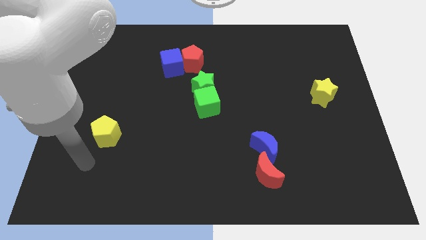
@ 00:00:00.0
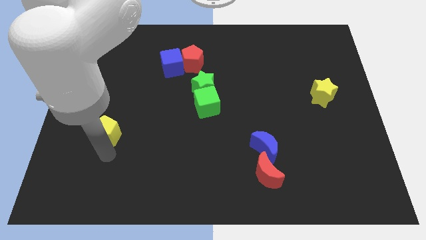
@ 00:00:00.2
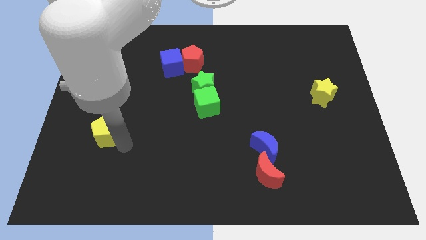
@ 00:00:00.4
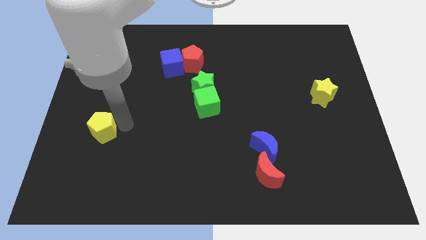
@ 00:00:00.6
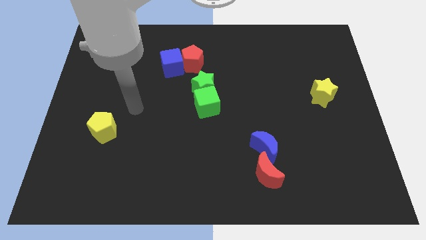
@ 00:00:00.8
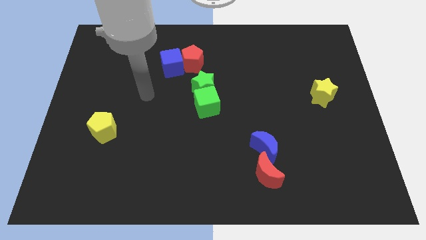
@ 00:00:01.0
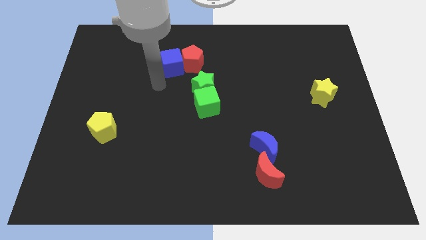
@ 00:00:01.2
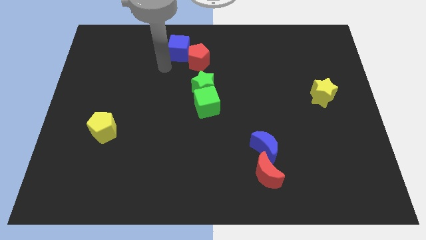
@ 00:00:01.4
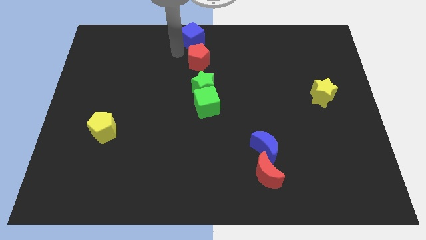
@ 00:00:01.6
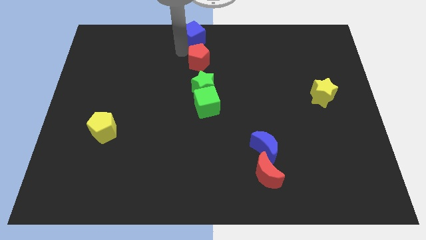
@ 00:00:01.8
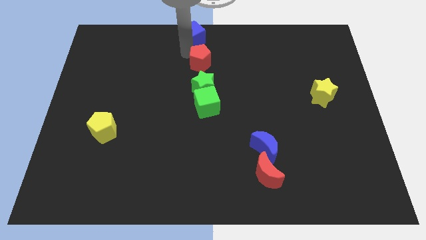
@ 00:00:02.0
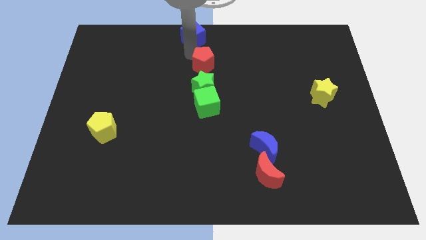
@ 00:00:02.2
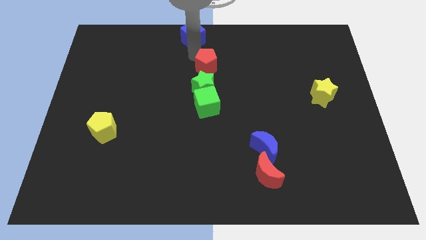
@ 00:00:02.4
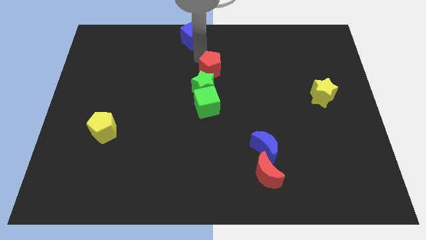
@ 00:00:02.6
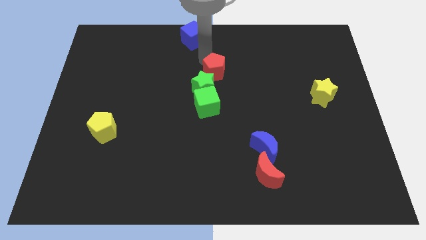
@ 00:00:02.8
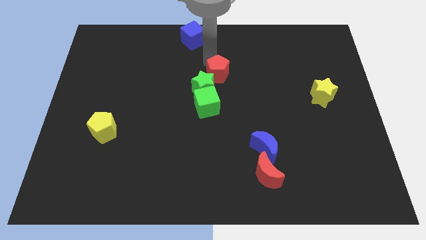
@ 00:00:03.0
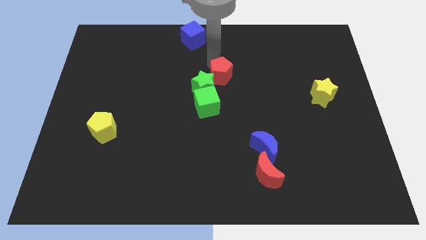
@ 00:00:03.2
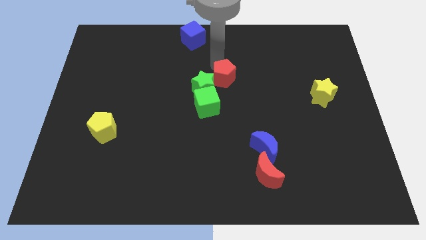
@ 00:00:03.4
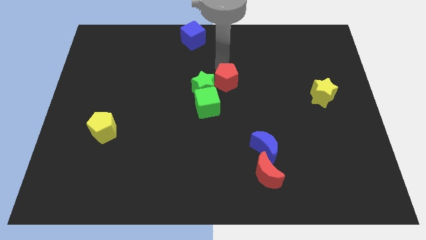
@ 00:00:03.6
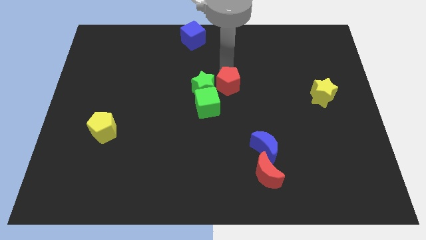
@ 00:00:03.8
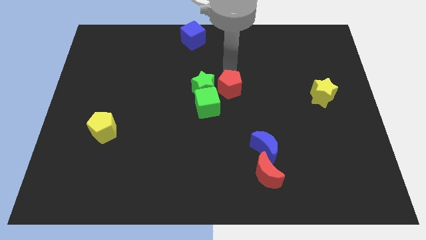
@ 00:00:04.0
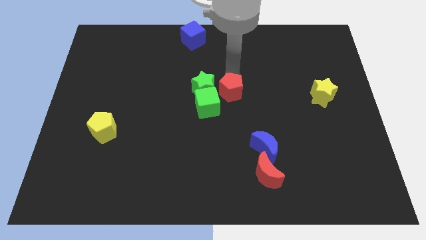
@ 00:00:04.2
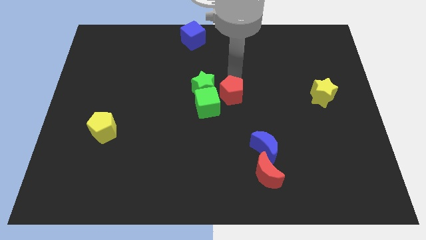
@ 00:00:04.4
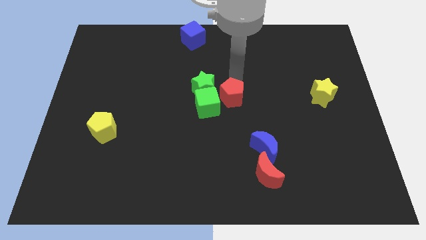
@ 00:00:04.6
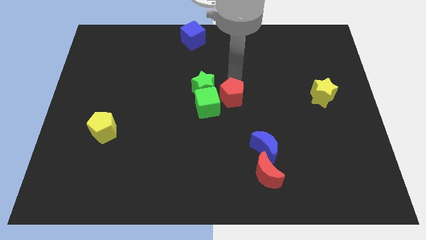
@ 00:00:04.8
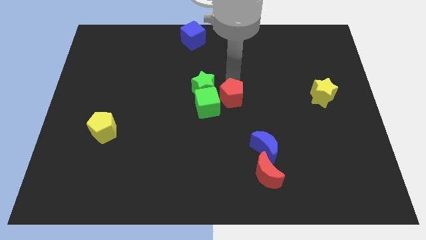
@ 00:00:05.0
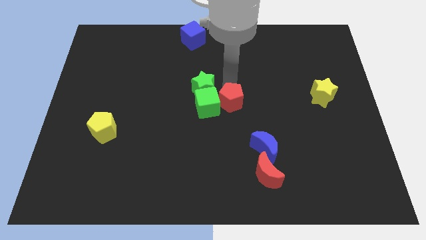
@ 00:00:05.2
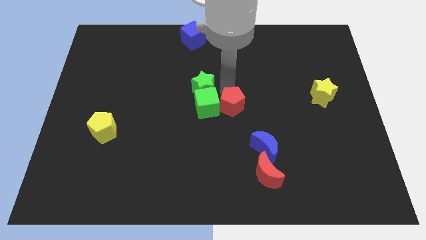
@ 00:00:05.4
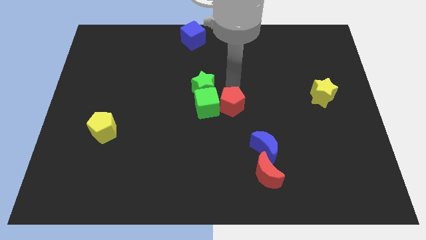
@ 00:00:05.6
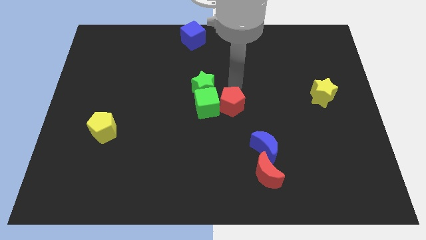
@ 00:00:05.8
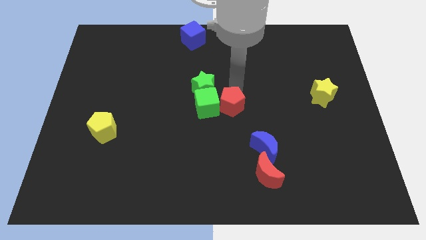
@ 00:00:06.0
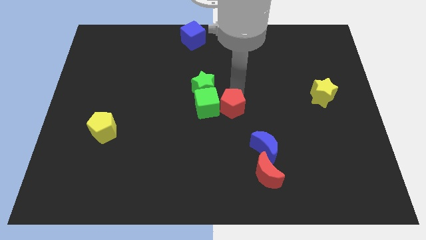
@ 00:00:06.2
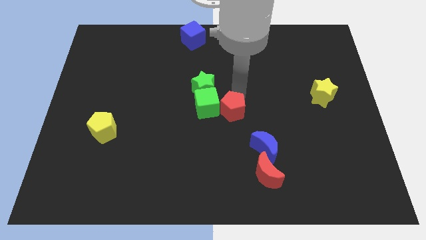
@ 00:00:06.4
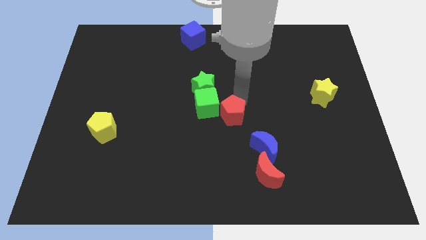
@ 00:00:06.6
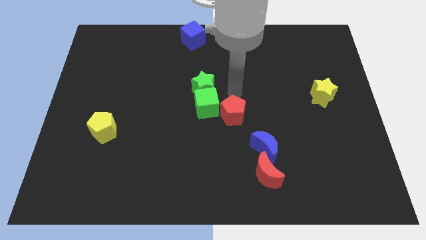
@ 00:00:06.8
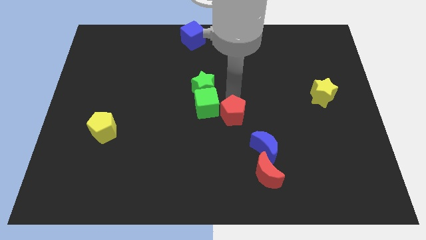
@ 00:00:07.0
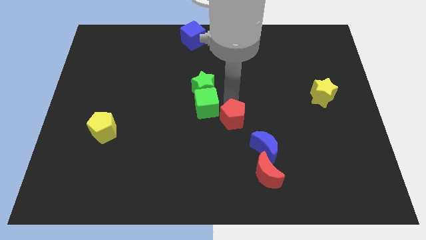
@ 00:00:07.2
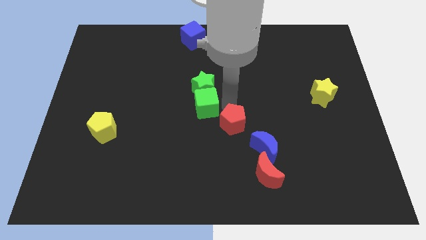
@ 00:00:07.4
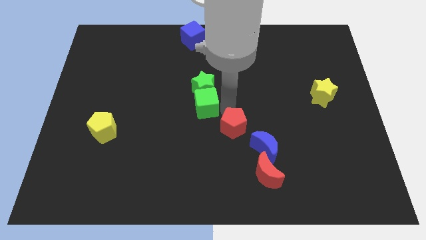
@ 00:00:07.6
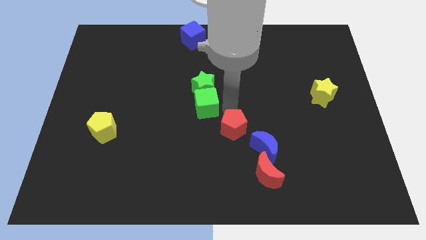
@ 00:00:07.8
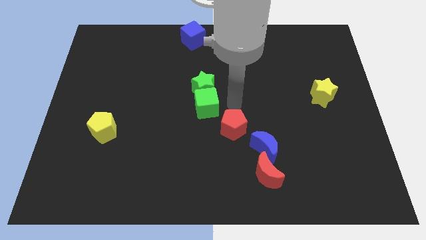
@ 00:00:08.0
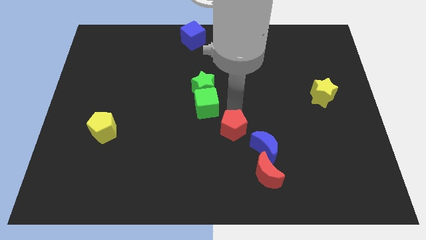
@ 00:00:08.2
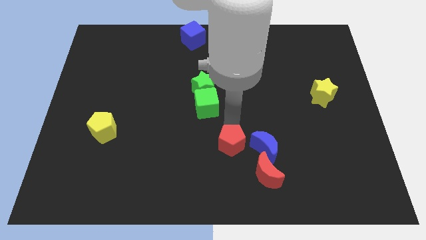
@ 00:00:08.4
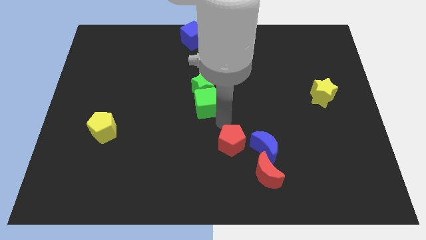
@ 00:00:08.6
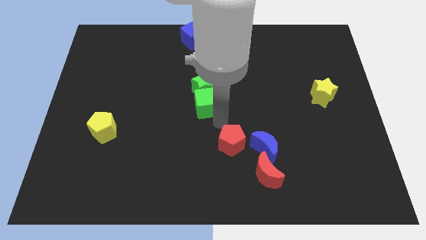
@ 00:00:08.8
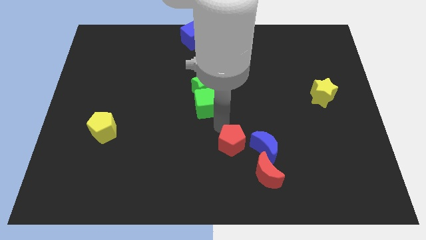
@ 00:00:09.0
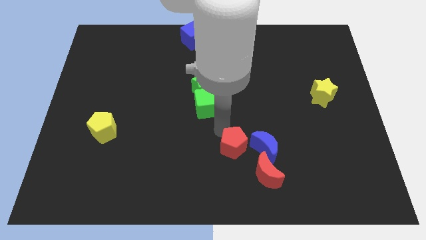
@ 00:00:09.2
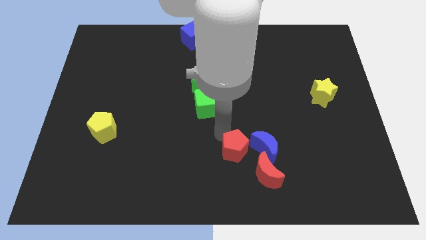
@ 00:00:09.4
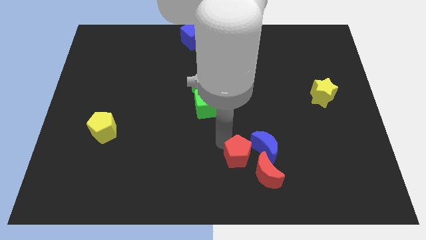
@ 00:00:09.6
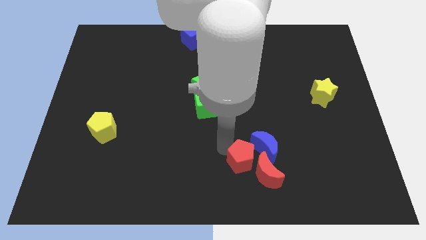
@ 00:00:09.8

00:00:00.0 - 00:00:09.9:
push the red pentagon next to the red moon

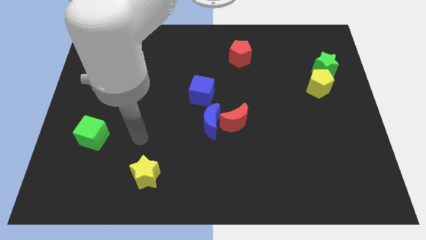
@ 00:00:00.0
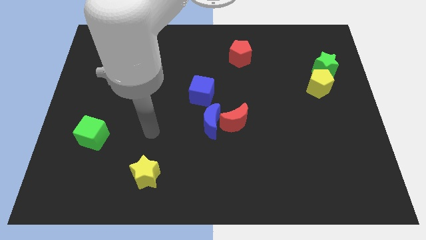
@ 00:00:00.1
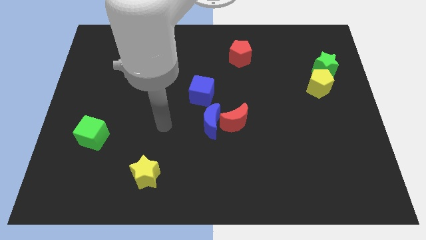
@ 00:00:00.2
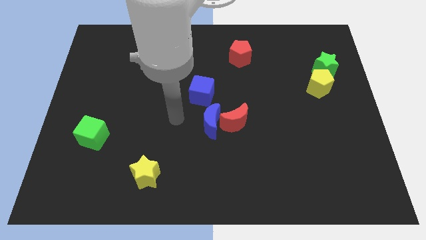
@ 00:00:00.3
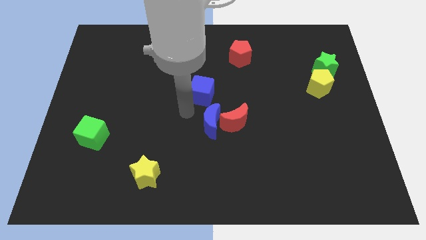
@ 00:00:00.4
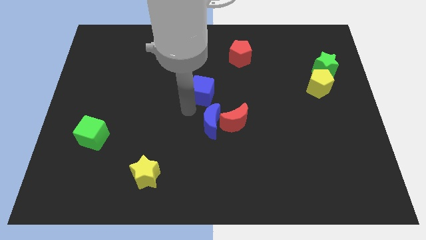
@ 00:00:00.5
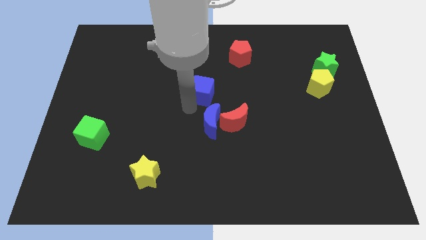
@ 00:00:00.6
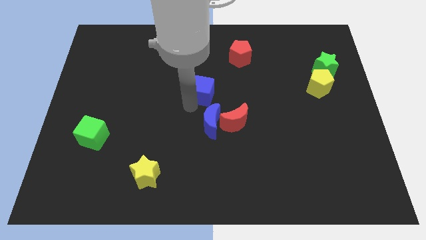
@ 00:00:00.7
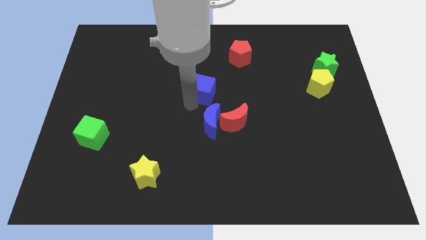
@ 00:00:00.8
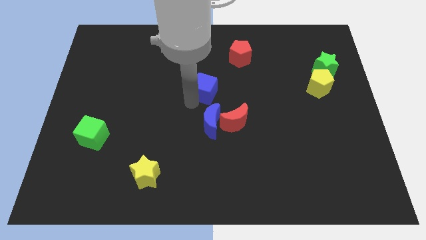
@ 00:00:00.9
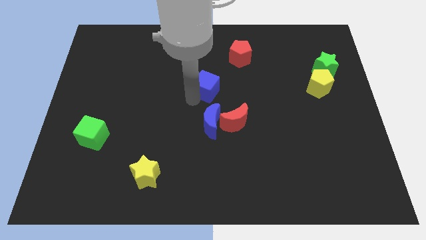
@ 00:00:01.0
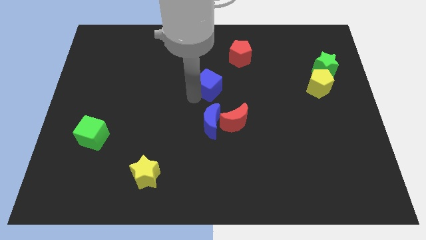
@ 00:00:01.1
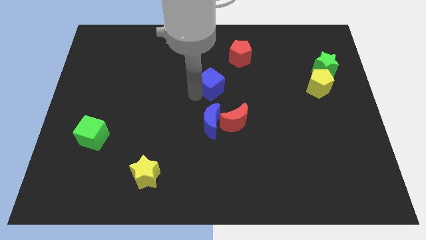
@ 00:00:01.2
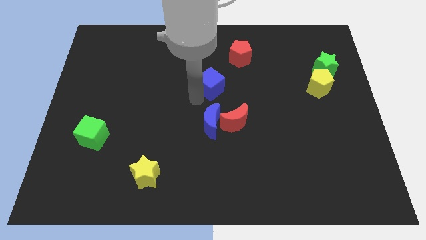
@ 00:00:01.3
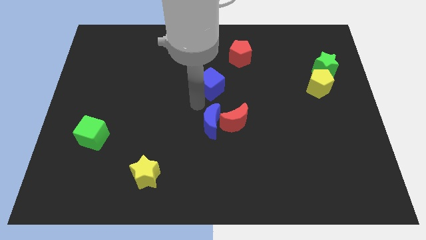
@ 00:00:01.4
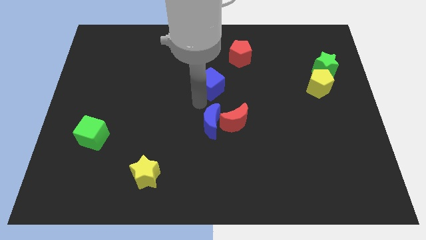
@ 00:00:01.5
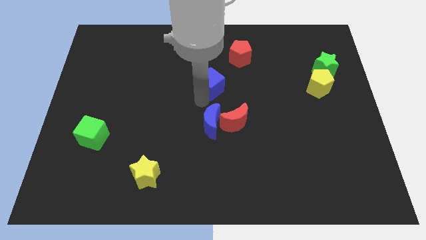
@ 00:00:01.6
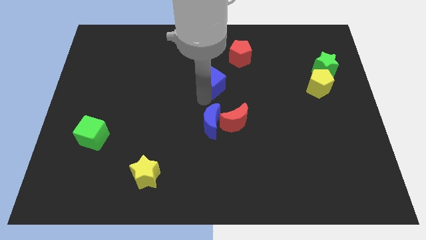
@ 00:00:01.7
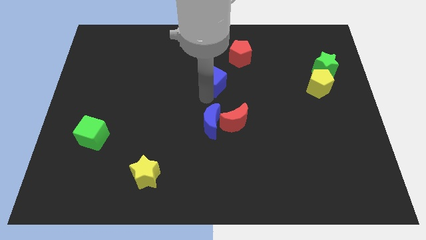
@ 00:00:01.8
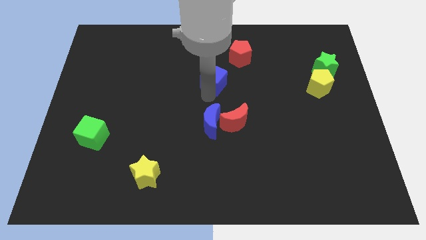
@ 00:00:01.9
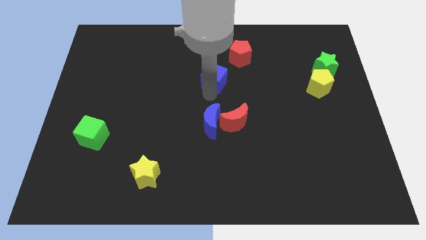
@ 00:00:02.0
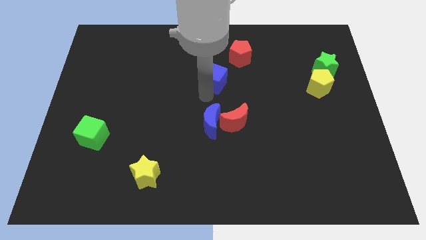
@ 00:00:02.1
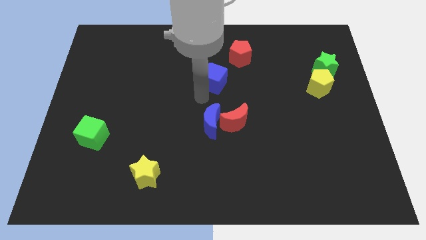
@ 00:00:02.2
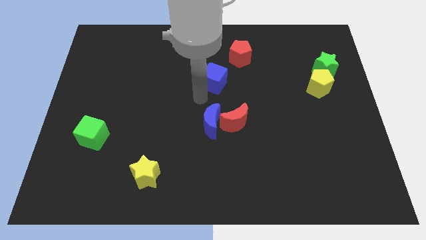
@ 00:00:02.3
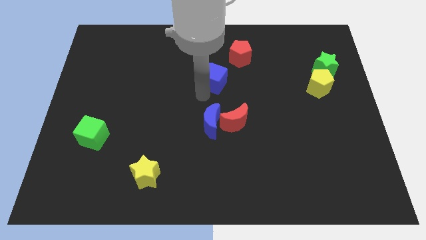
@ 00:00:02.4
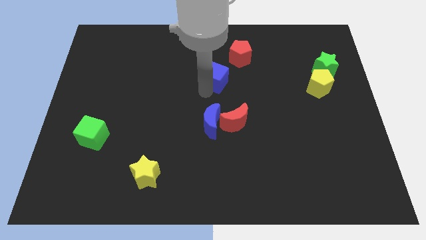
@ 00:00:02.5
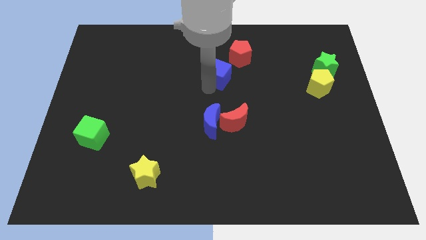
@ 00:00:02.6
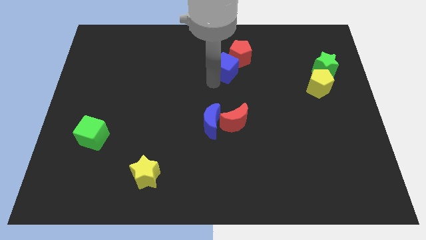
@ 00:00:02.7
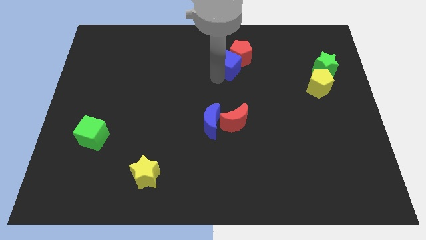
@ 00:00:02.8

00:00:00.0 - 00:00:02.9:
move the blue cube to the red pentagon
